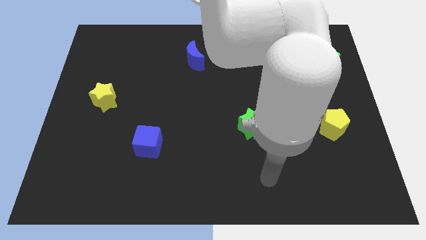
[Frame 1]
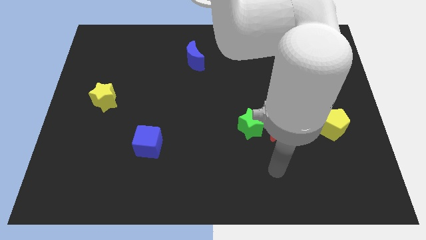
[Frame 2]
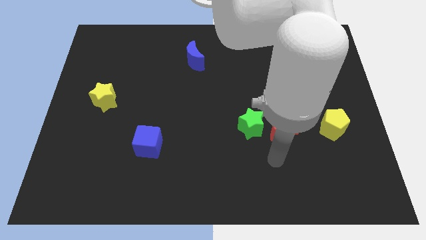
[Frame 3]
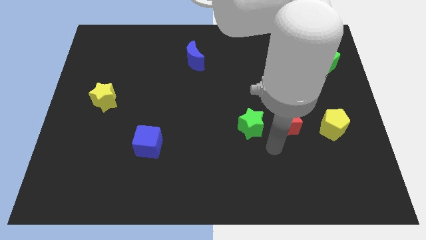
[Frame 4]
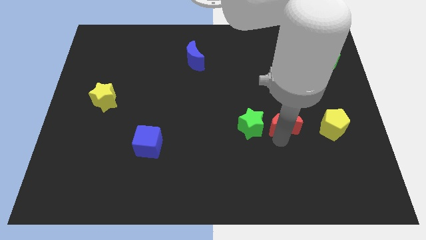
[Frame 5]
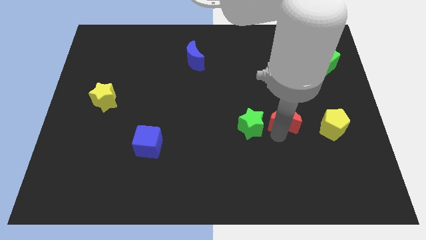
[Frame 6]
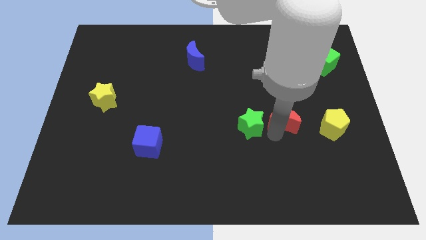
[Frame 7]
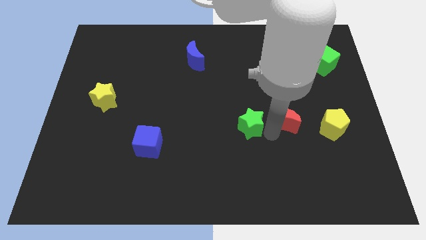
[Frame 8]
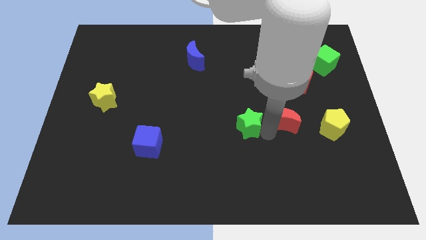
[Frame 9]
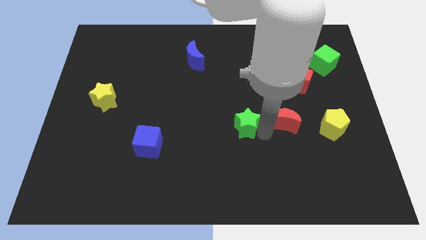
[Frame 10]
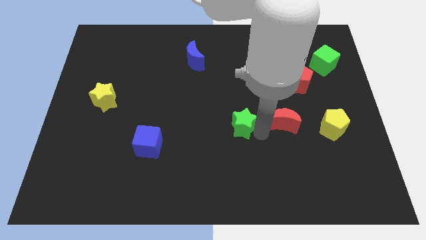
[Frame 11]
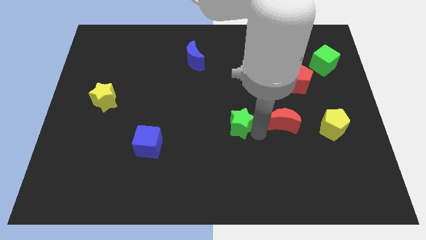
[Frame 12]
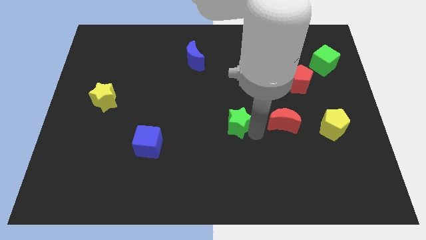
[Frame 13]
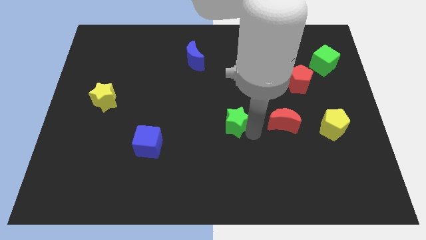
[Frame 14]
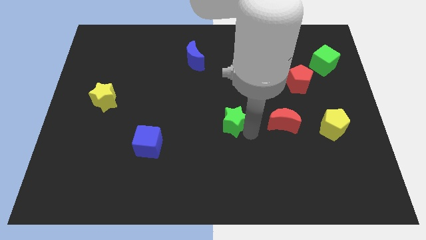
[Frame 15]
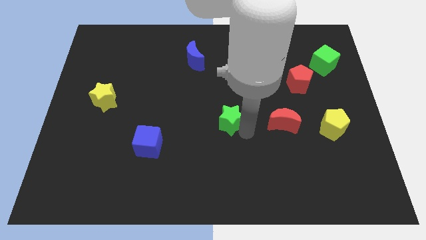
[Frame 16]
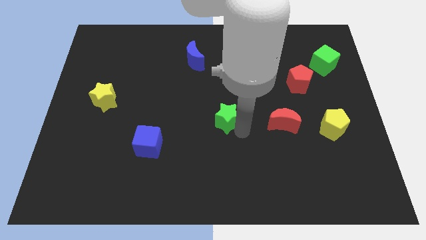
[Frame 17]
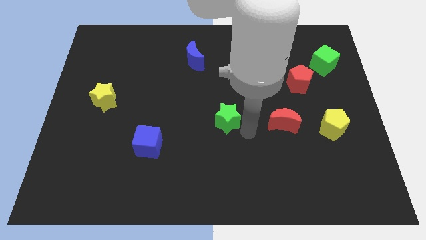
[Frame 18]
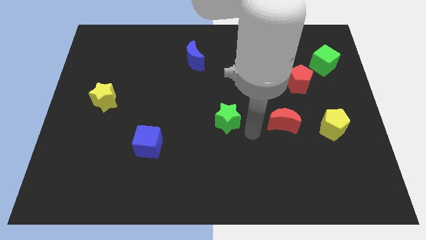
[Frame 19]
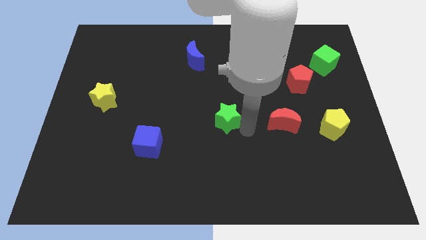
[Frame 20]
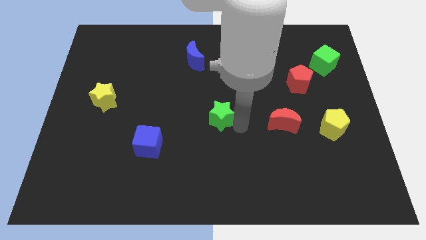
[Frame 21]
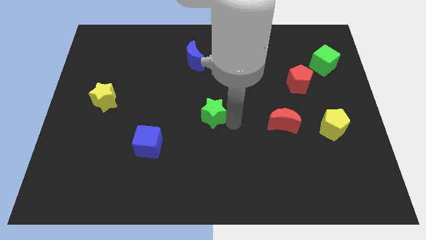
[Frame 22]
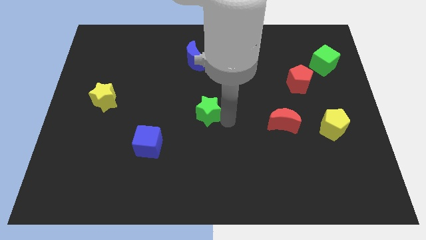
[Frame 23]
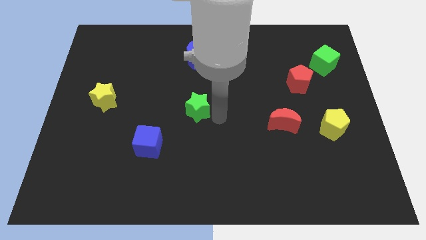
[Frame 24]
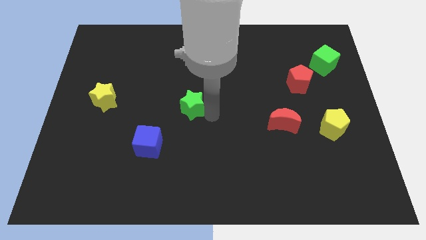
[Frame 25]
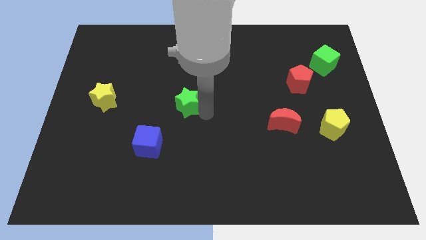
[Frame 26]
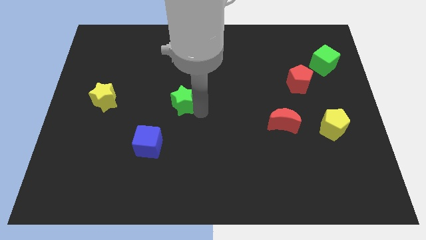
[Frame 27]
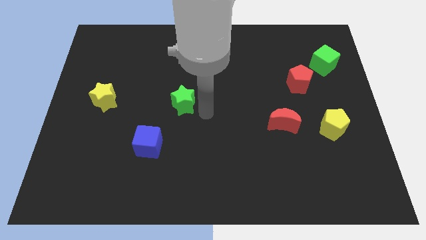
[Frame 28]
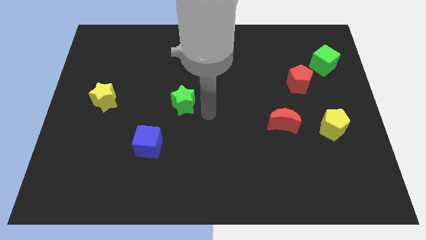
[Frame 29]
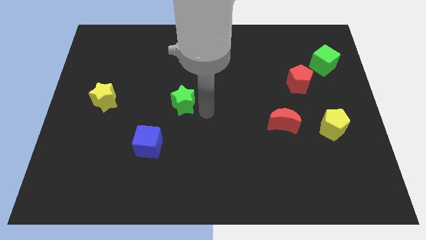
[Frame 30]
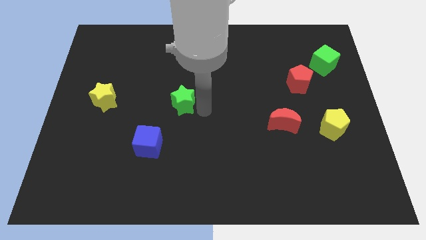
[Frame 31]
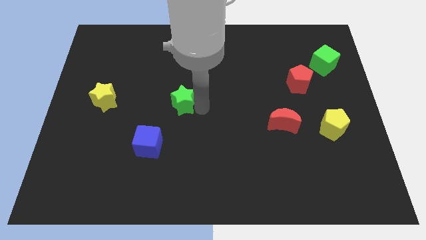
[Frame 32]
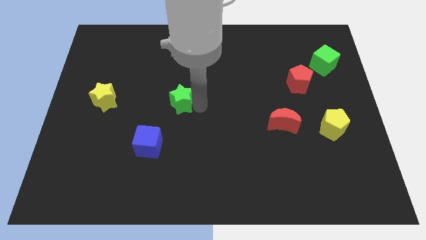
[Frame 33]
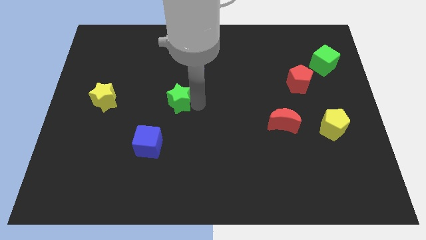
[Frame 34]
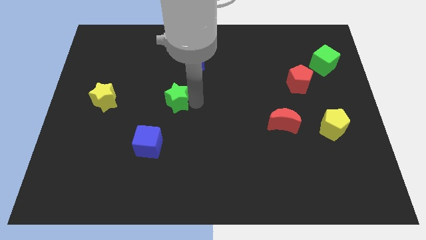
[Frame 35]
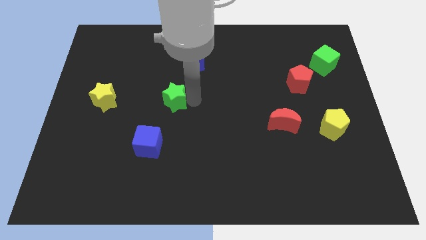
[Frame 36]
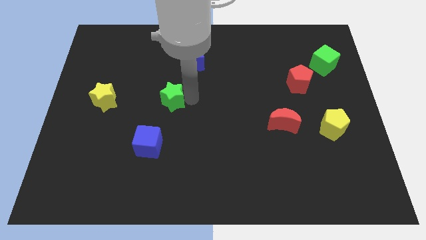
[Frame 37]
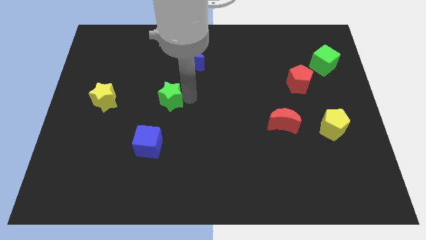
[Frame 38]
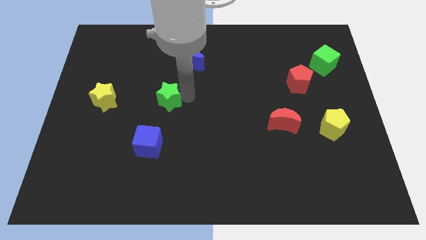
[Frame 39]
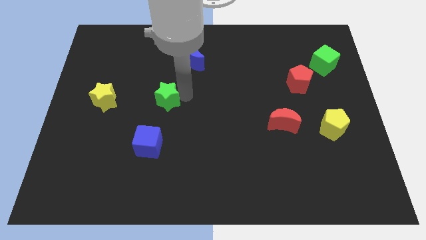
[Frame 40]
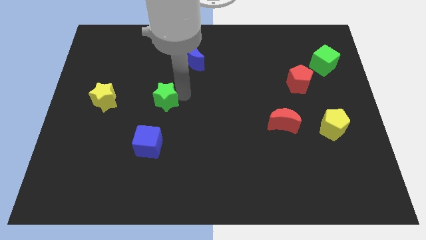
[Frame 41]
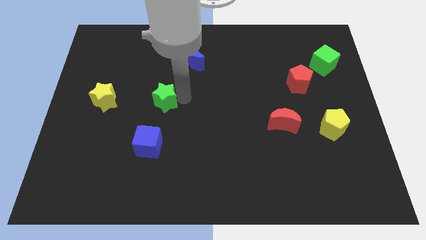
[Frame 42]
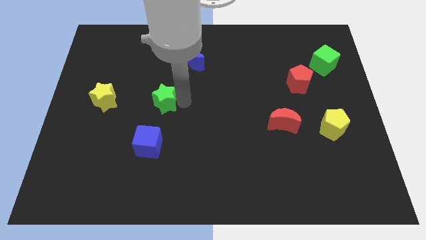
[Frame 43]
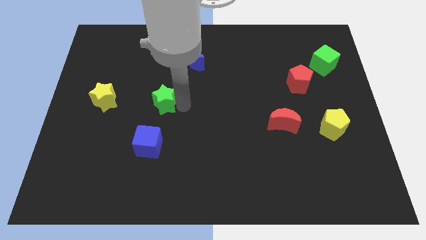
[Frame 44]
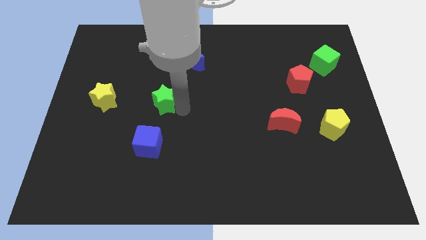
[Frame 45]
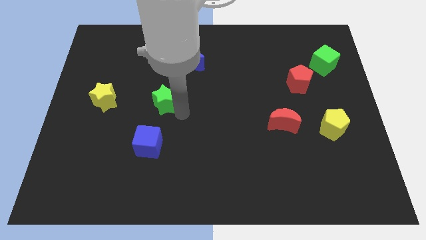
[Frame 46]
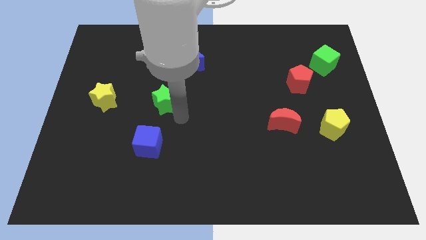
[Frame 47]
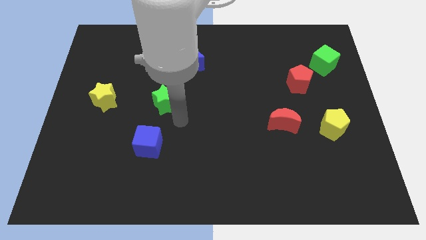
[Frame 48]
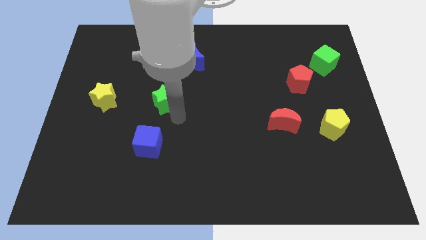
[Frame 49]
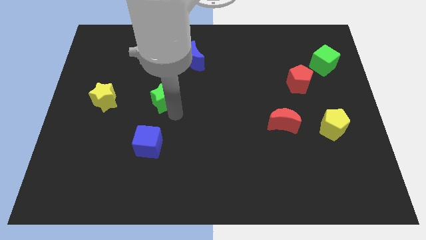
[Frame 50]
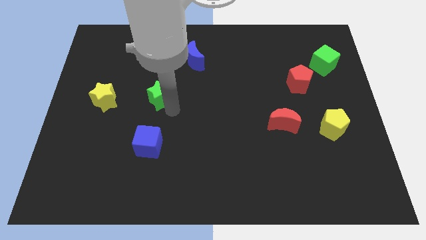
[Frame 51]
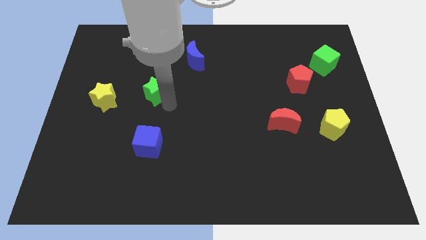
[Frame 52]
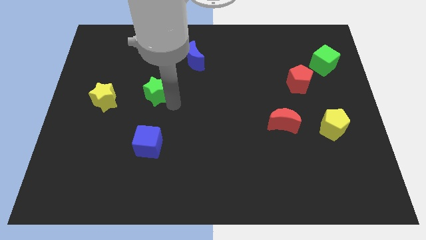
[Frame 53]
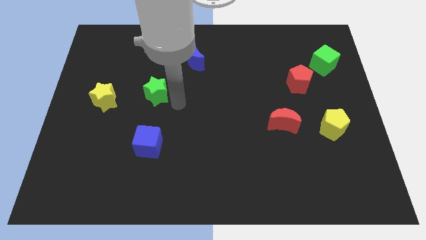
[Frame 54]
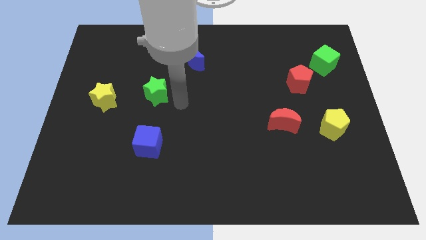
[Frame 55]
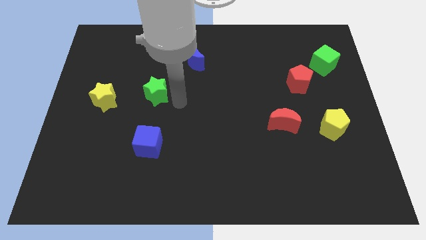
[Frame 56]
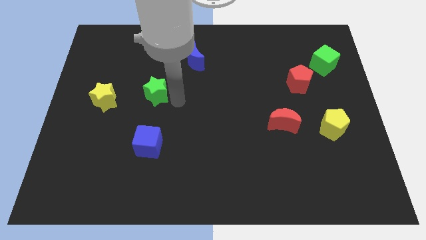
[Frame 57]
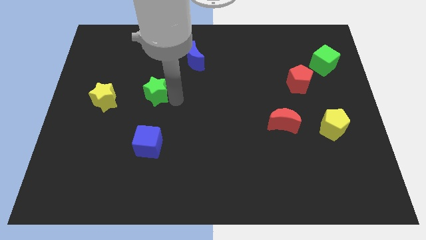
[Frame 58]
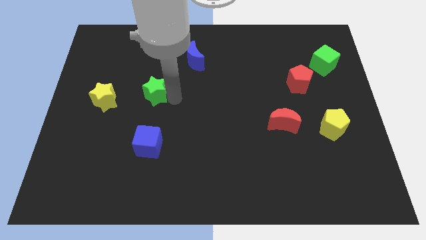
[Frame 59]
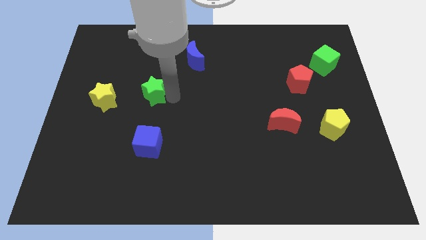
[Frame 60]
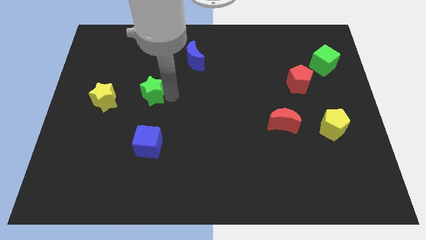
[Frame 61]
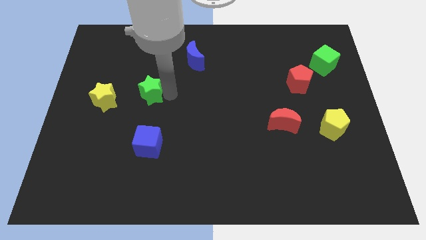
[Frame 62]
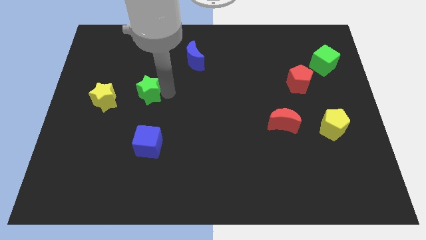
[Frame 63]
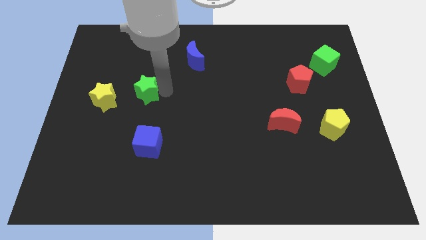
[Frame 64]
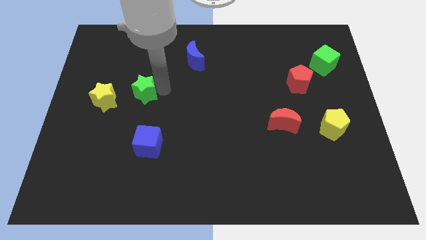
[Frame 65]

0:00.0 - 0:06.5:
move the green star diagonally up and to the right of the yellow star

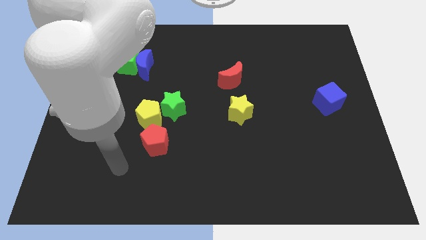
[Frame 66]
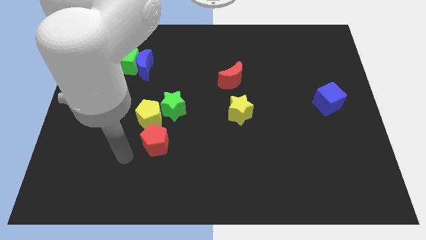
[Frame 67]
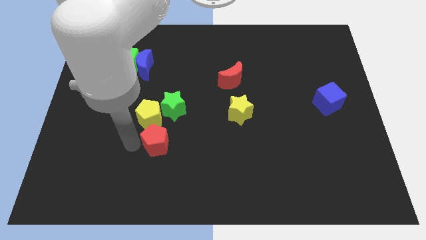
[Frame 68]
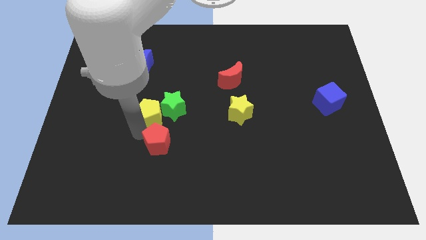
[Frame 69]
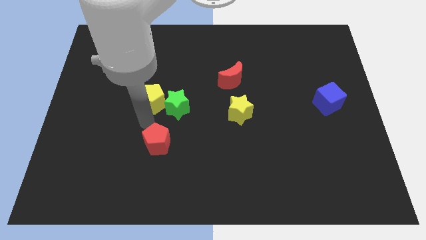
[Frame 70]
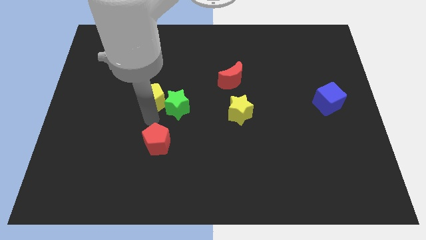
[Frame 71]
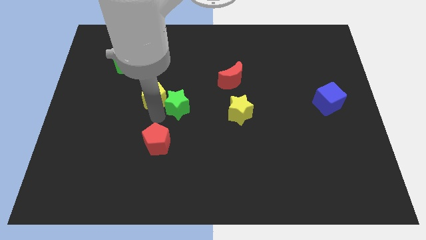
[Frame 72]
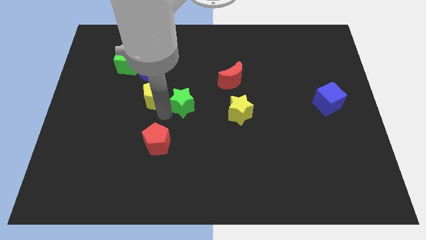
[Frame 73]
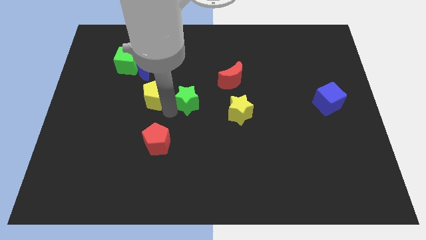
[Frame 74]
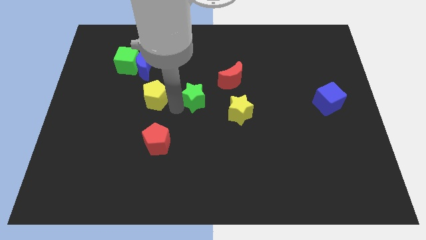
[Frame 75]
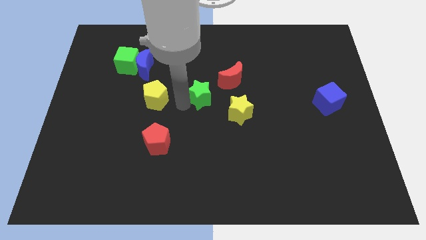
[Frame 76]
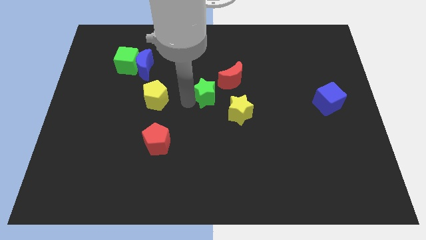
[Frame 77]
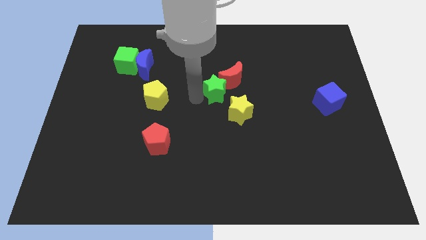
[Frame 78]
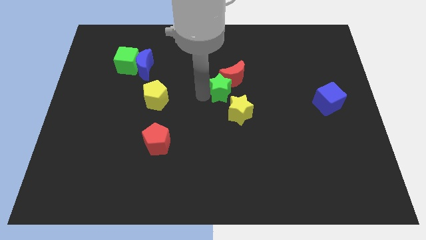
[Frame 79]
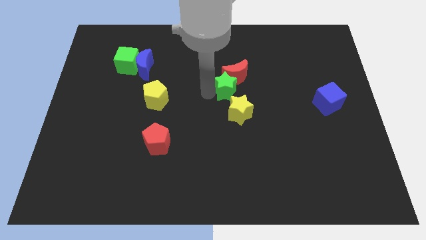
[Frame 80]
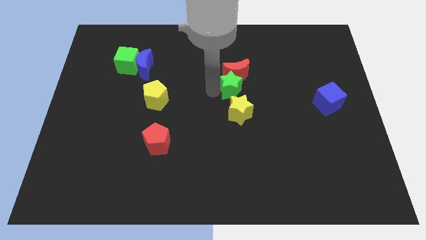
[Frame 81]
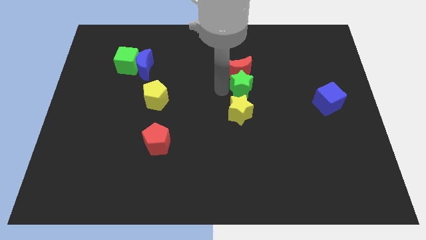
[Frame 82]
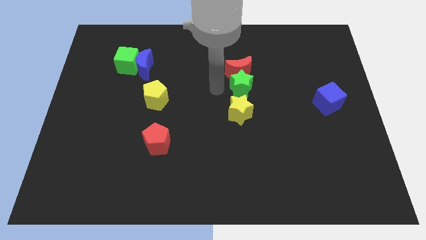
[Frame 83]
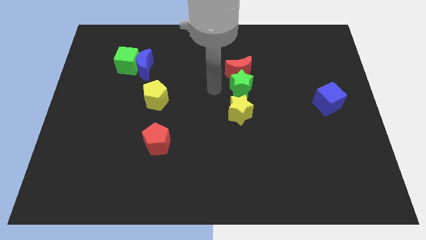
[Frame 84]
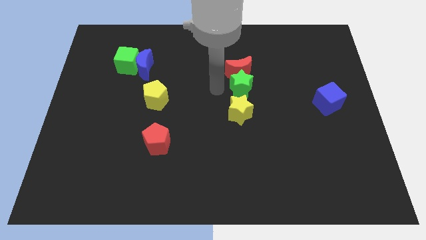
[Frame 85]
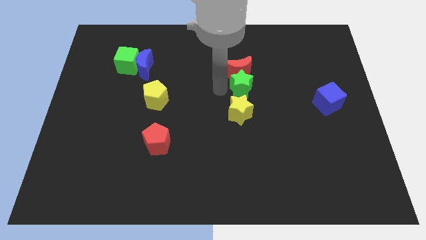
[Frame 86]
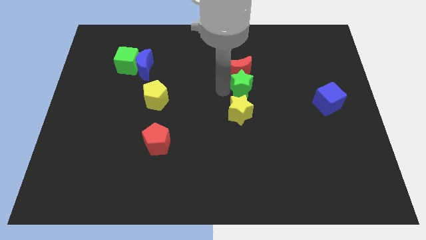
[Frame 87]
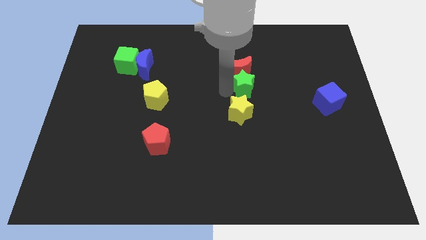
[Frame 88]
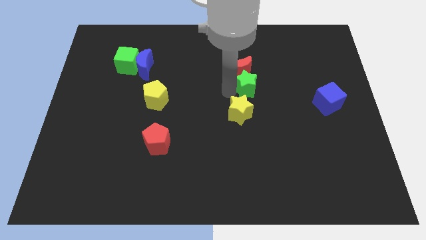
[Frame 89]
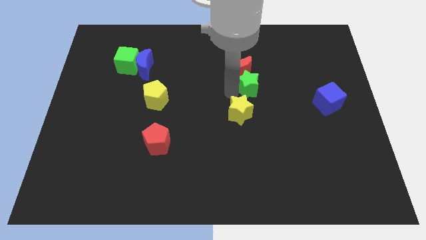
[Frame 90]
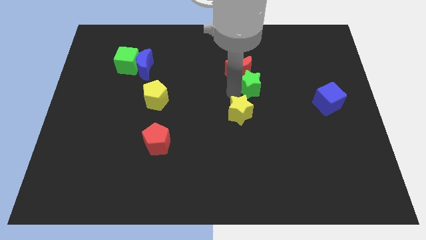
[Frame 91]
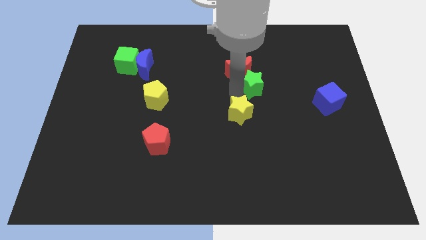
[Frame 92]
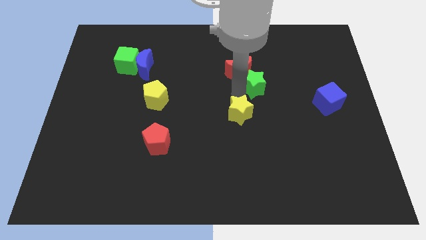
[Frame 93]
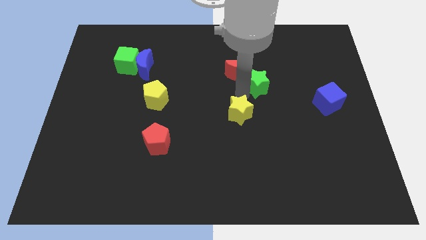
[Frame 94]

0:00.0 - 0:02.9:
push the green star right of the red moon
